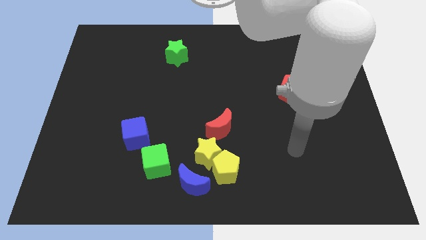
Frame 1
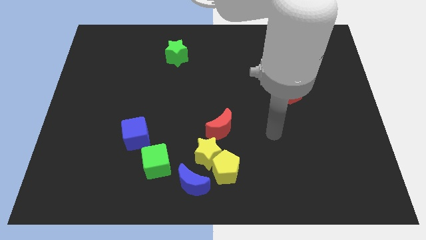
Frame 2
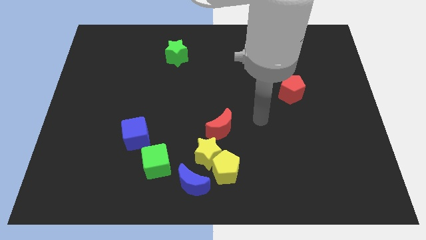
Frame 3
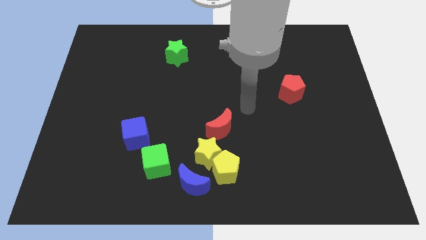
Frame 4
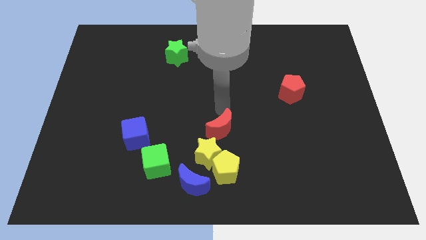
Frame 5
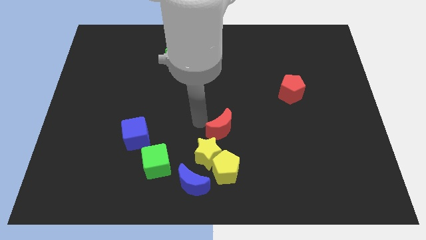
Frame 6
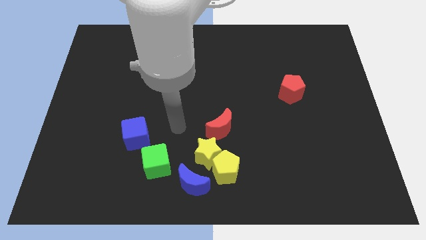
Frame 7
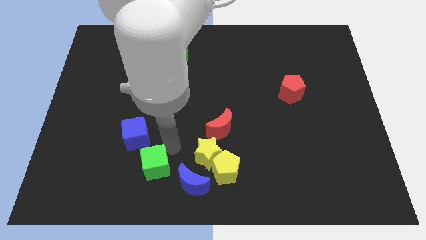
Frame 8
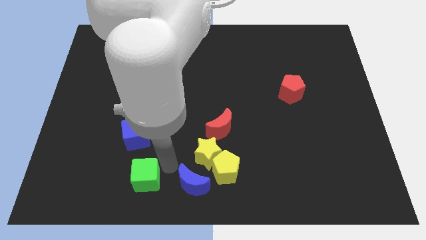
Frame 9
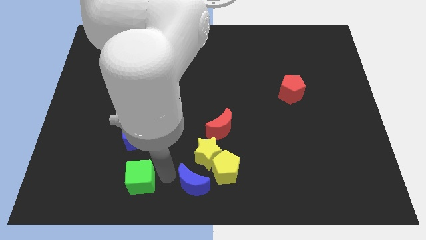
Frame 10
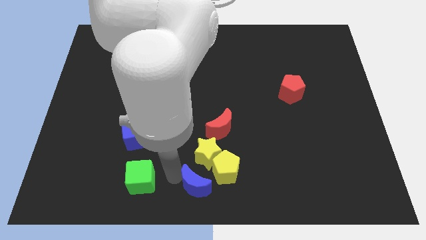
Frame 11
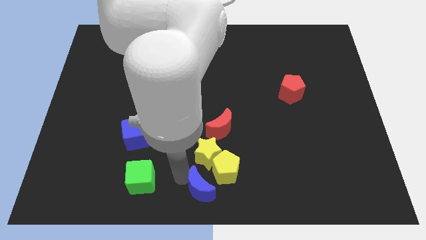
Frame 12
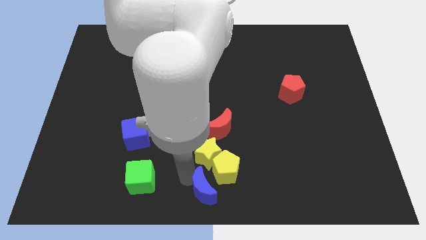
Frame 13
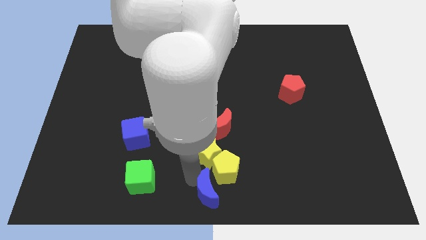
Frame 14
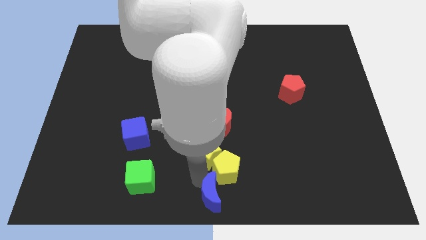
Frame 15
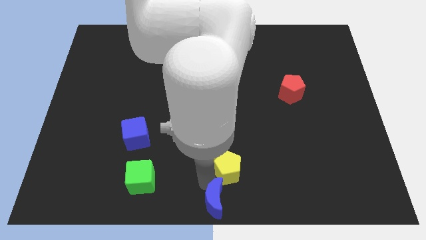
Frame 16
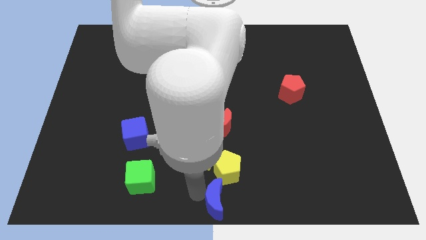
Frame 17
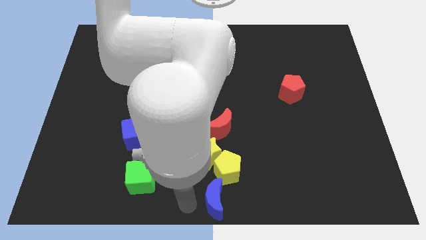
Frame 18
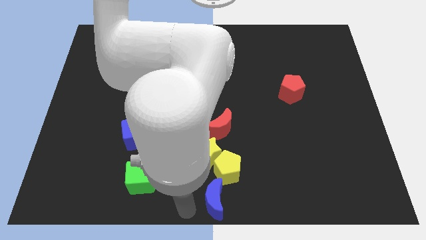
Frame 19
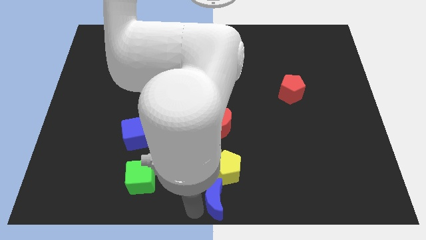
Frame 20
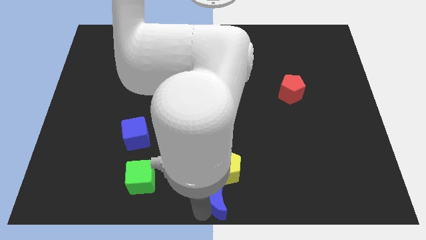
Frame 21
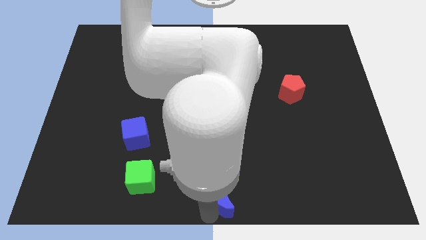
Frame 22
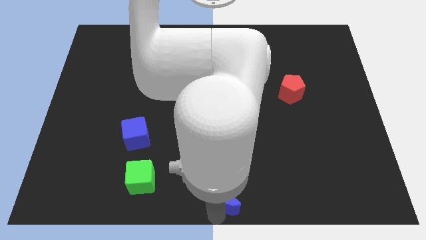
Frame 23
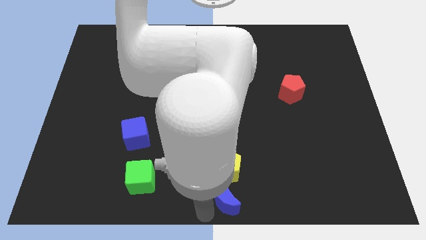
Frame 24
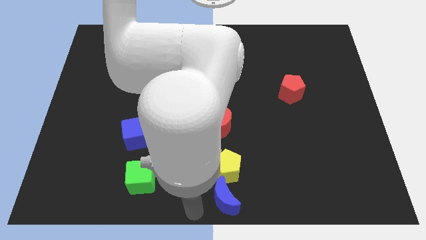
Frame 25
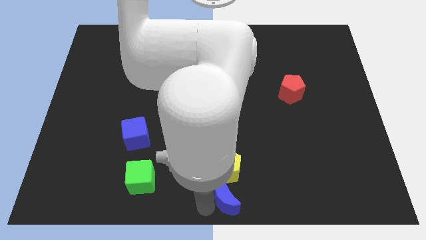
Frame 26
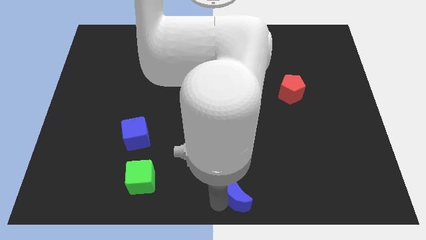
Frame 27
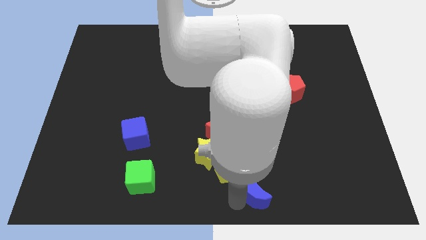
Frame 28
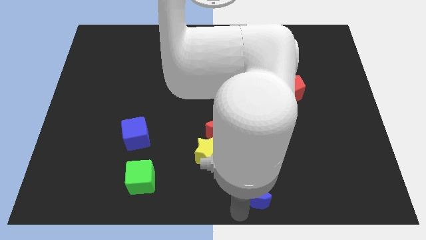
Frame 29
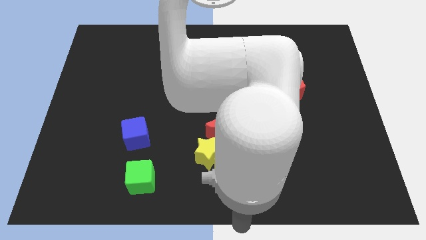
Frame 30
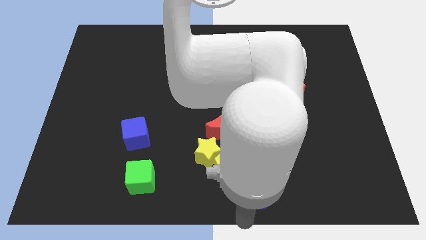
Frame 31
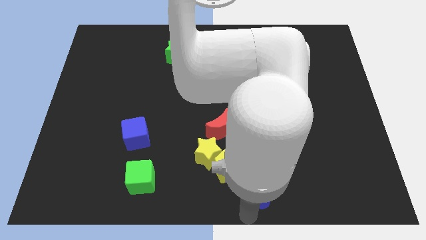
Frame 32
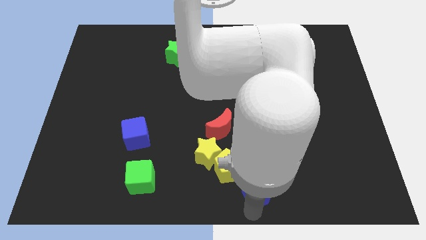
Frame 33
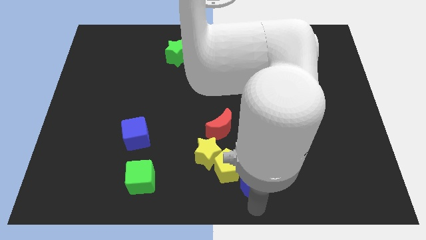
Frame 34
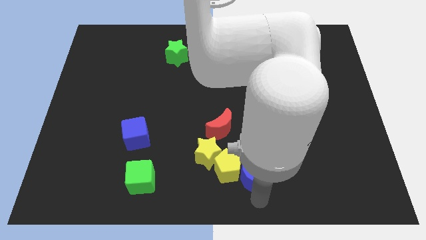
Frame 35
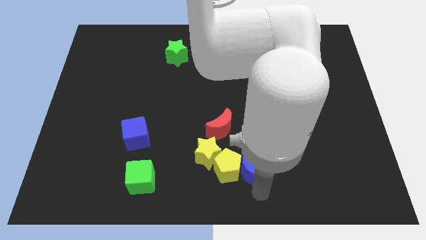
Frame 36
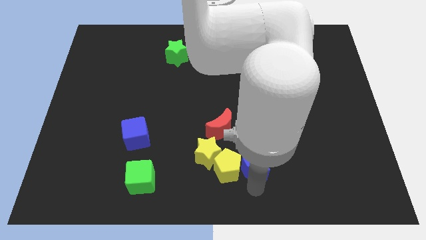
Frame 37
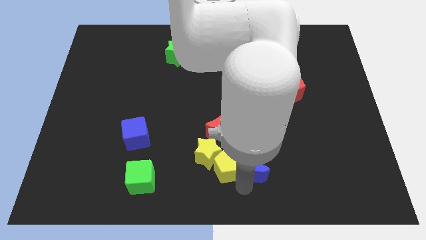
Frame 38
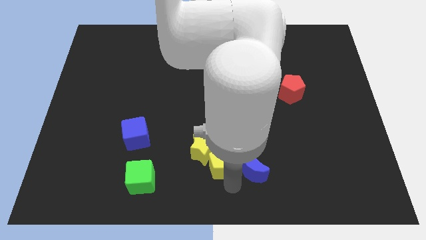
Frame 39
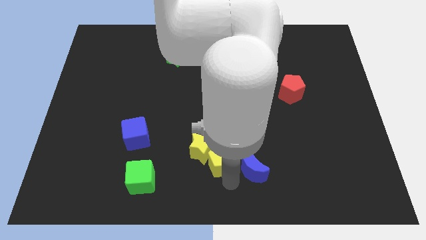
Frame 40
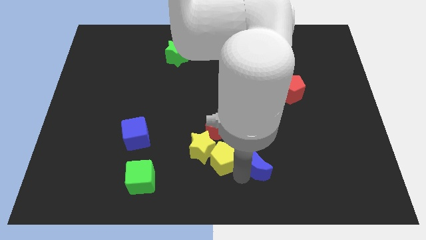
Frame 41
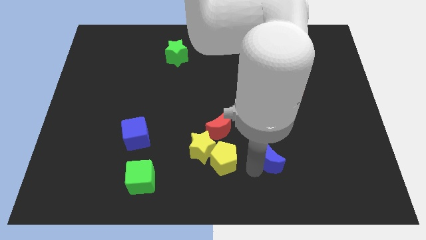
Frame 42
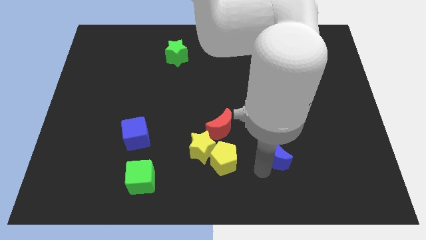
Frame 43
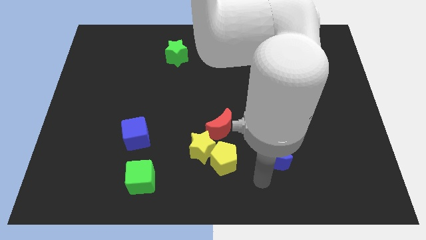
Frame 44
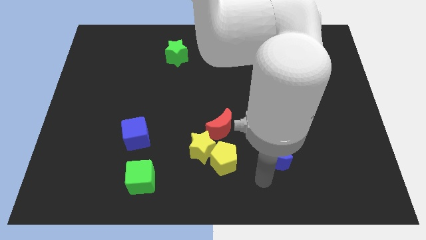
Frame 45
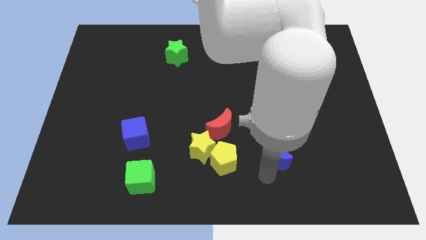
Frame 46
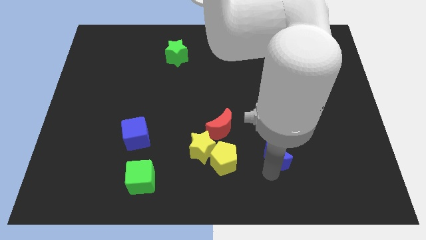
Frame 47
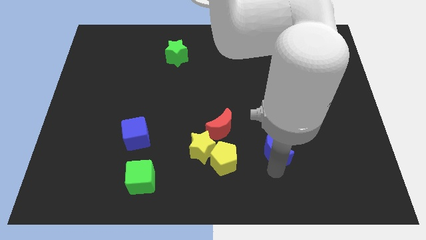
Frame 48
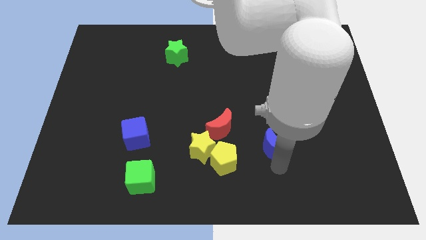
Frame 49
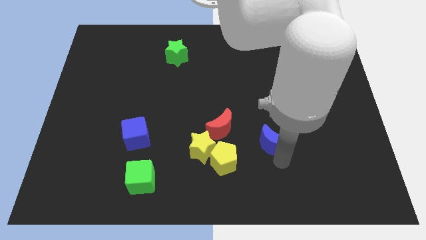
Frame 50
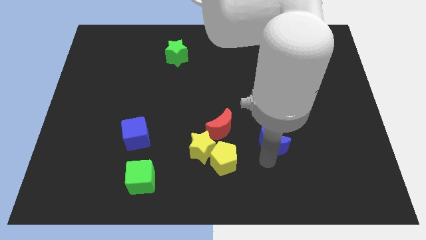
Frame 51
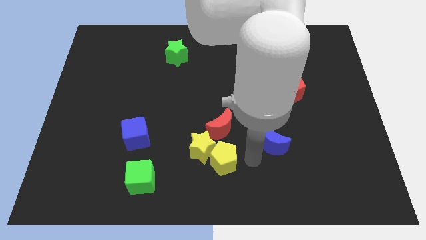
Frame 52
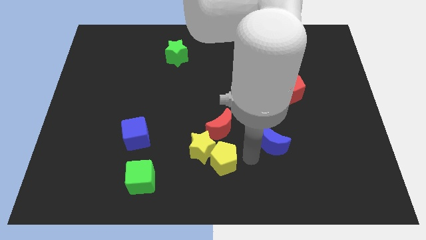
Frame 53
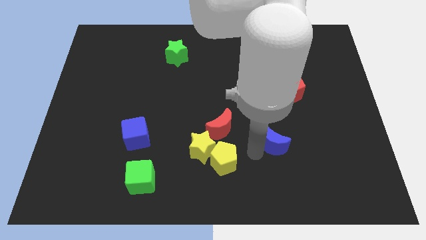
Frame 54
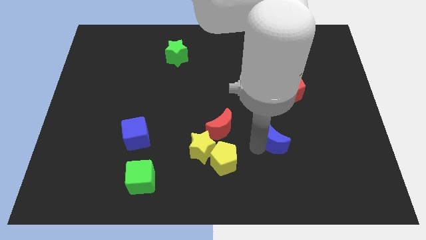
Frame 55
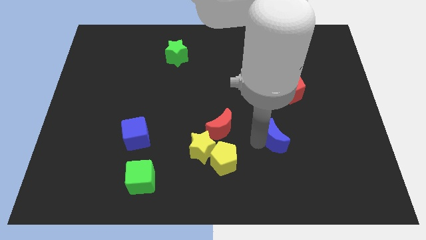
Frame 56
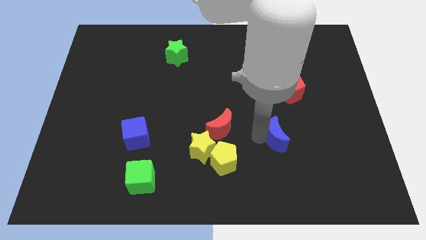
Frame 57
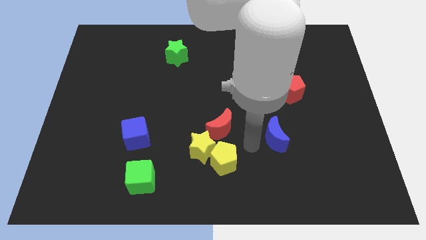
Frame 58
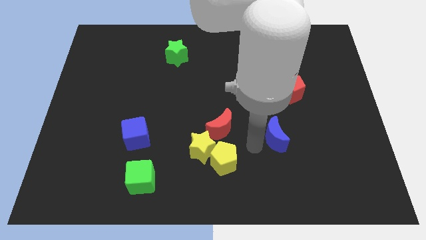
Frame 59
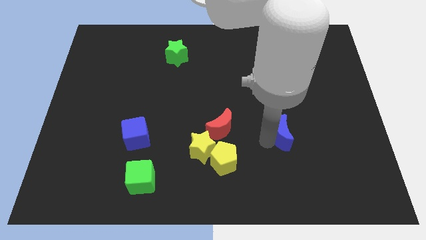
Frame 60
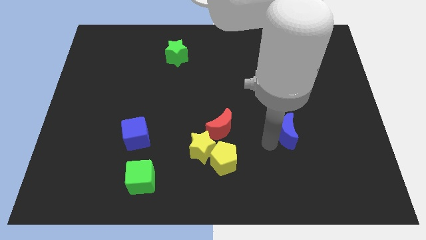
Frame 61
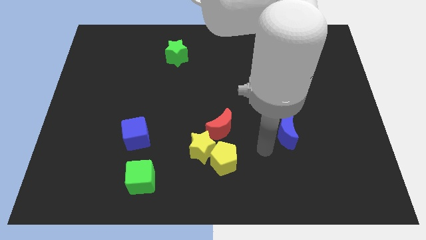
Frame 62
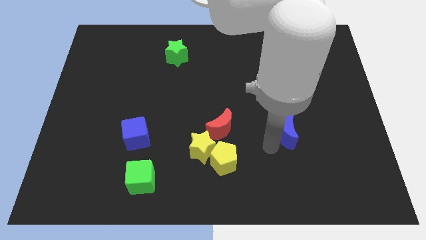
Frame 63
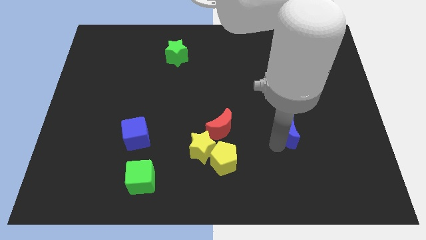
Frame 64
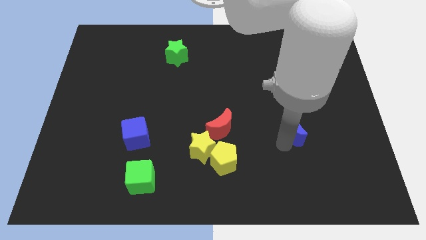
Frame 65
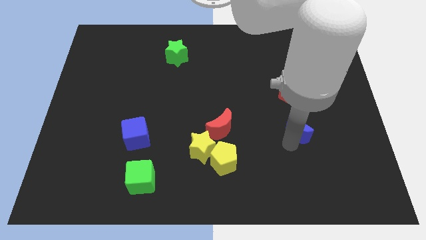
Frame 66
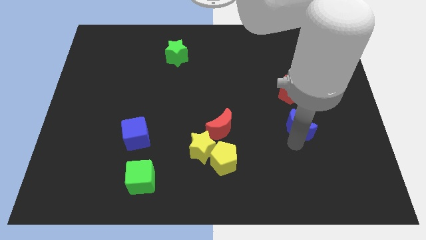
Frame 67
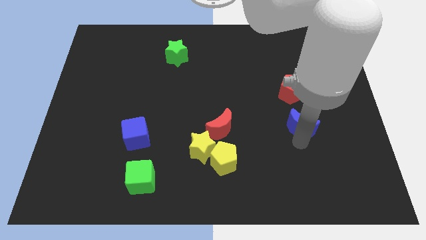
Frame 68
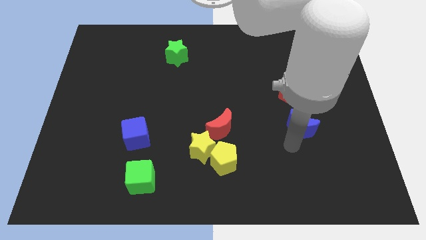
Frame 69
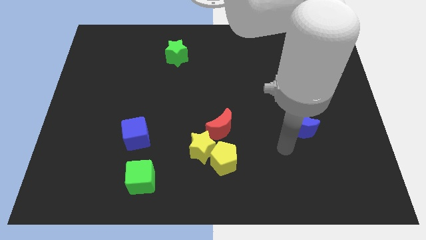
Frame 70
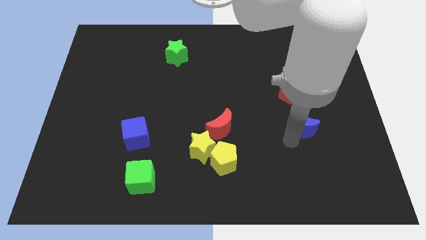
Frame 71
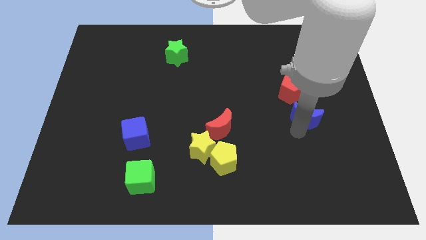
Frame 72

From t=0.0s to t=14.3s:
move the blue moon diagonally down and to the right of the red pentagon
